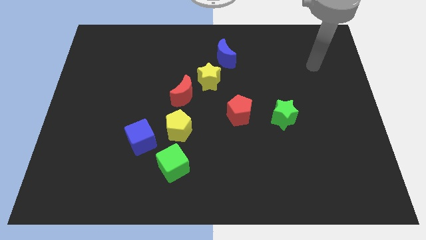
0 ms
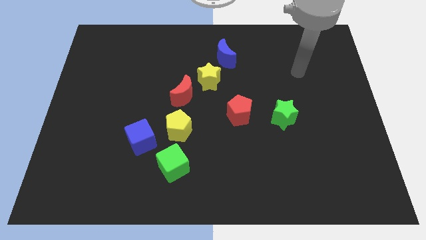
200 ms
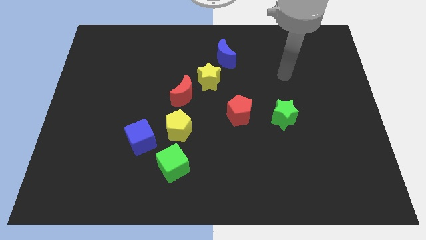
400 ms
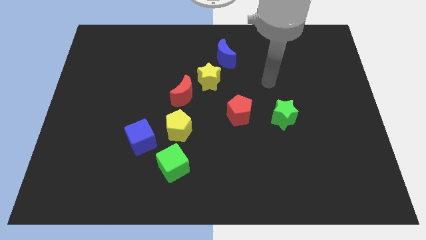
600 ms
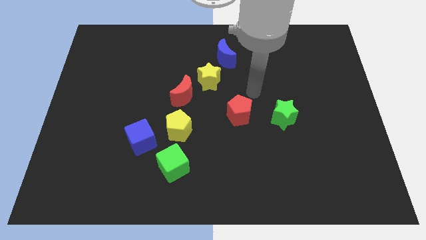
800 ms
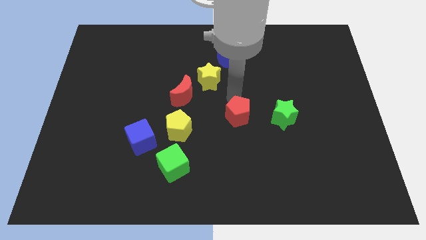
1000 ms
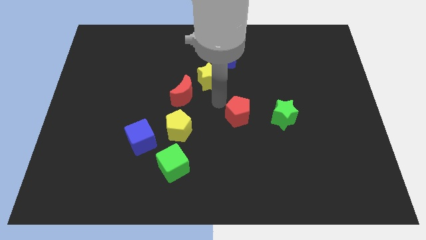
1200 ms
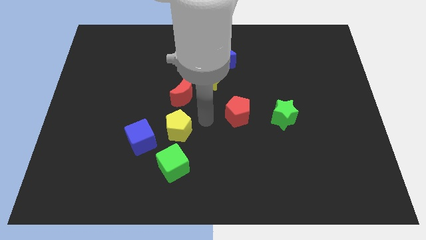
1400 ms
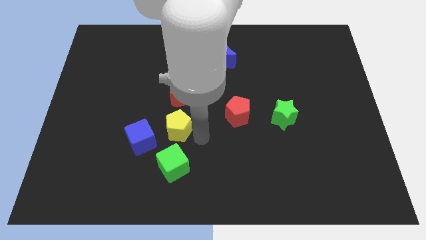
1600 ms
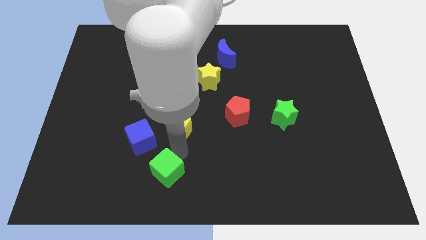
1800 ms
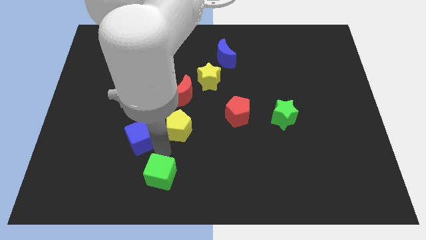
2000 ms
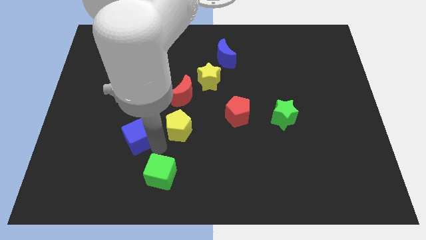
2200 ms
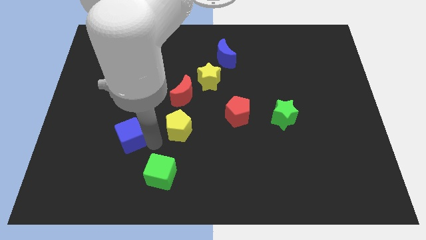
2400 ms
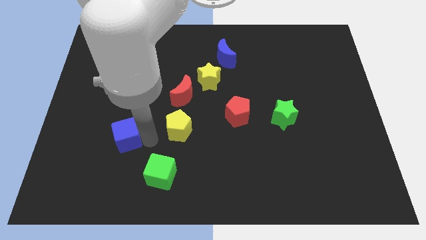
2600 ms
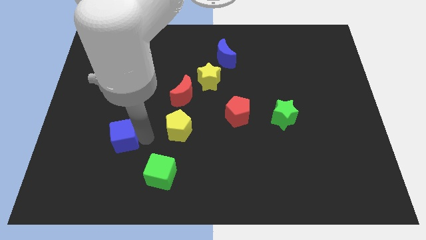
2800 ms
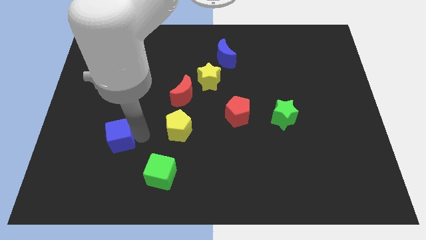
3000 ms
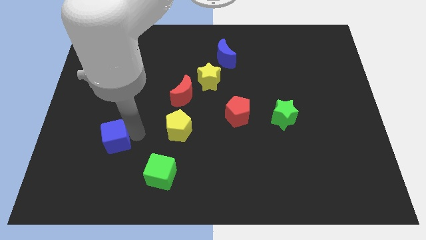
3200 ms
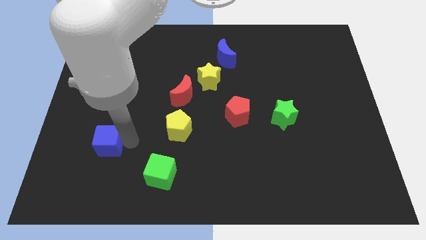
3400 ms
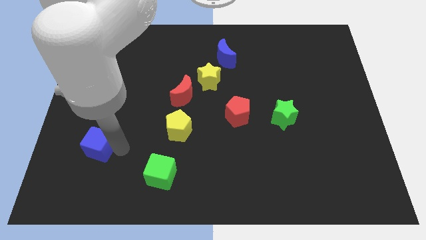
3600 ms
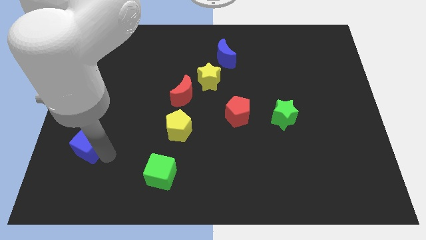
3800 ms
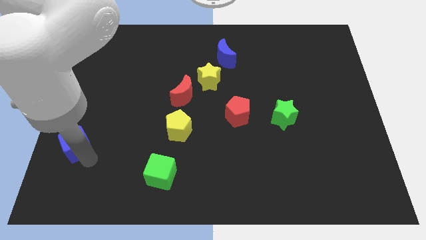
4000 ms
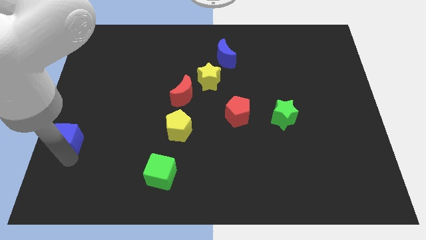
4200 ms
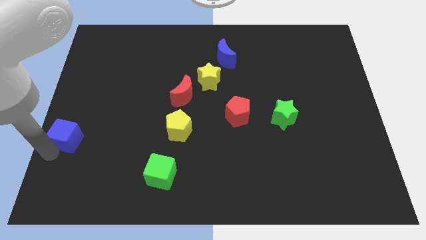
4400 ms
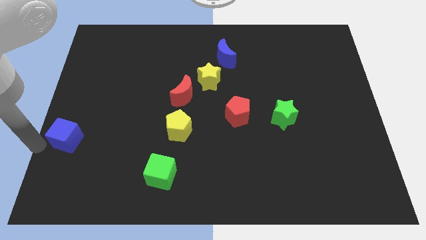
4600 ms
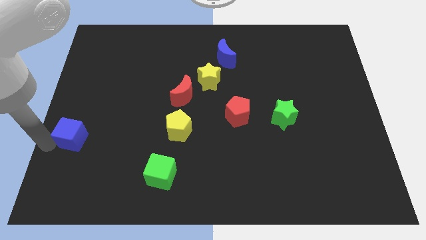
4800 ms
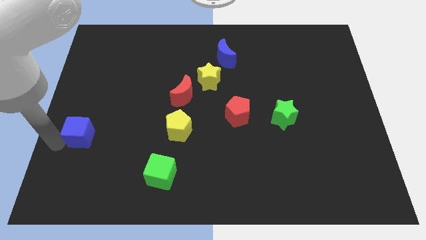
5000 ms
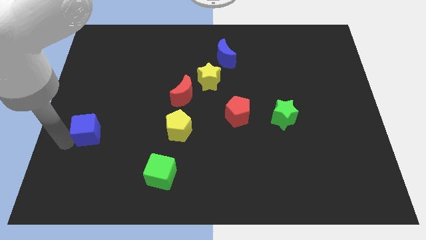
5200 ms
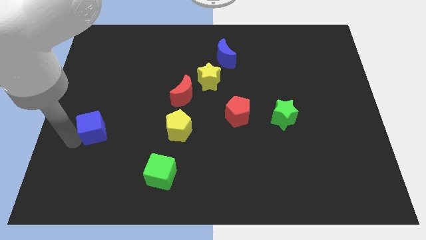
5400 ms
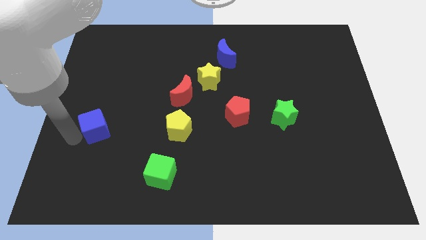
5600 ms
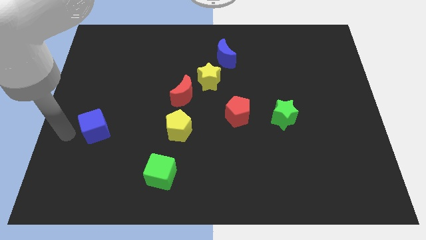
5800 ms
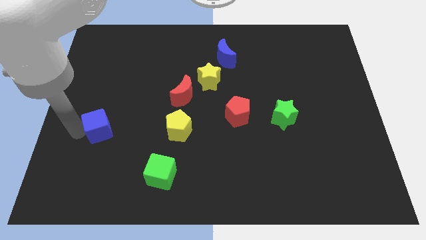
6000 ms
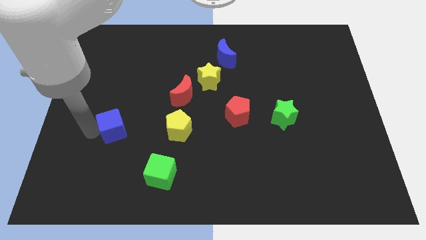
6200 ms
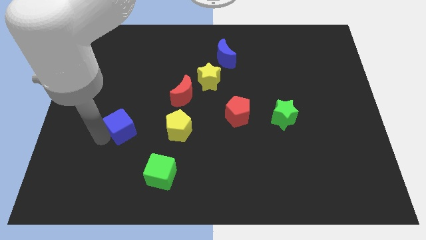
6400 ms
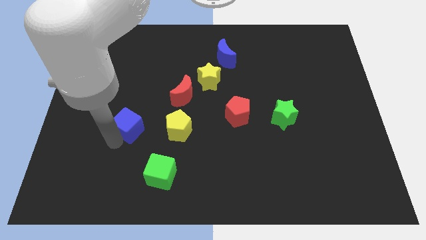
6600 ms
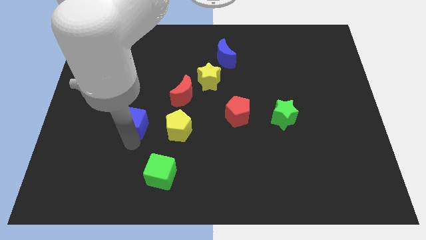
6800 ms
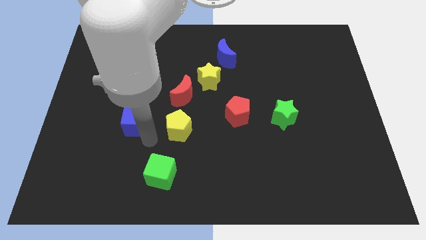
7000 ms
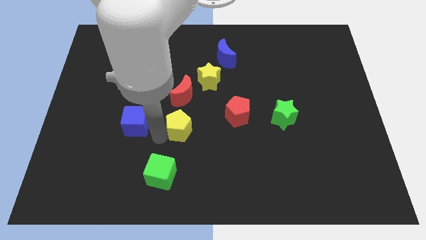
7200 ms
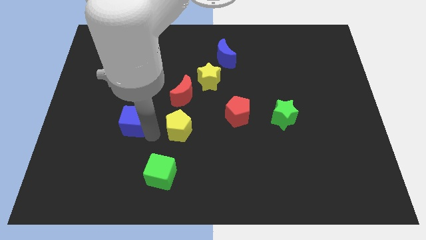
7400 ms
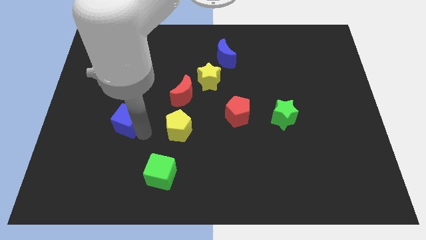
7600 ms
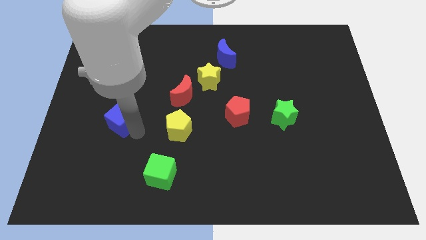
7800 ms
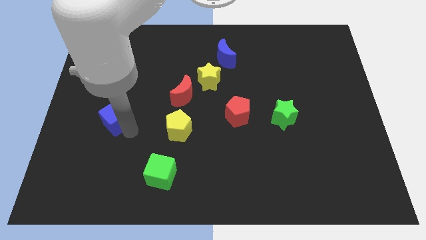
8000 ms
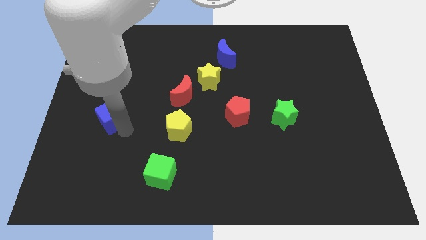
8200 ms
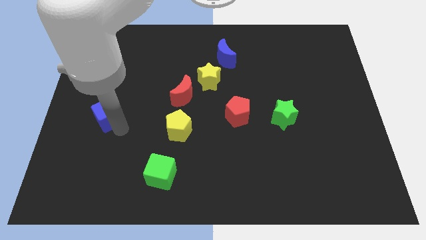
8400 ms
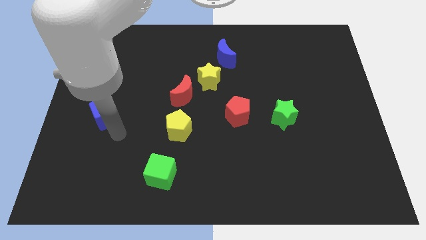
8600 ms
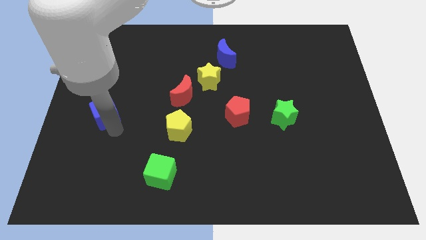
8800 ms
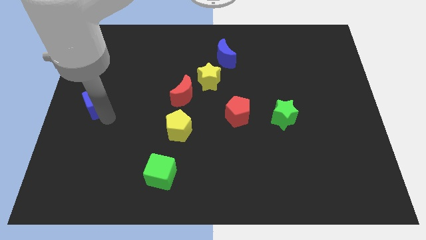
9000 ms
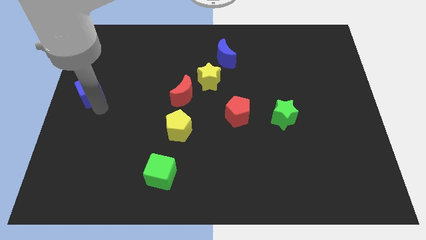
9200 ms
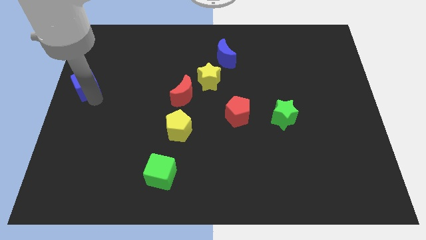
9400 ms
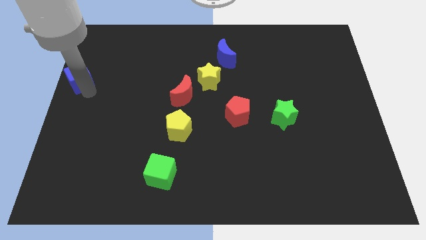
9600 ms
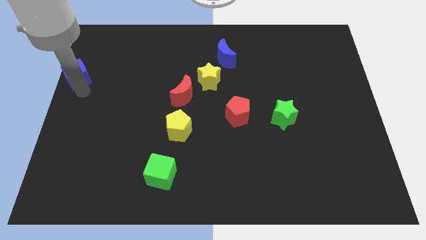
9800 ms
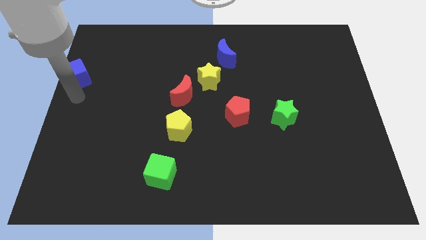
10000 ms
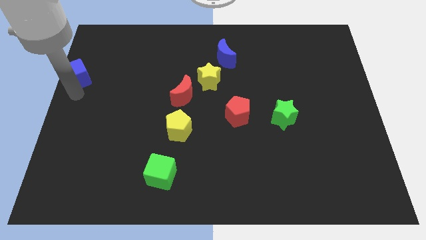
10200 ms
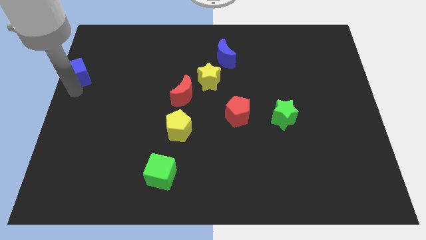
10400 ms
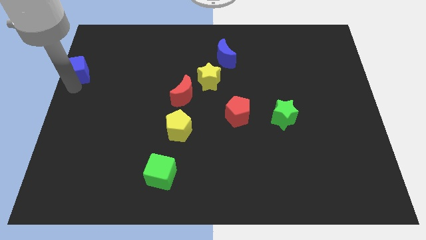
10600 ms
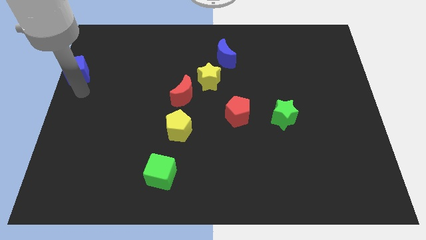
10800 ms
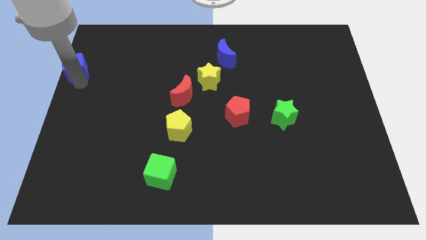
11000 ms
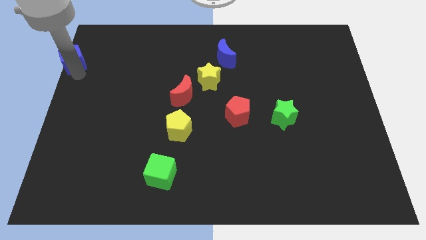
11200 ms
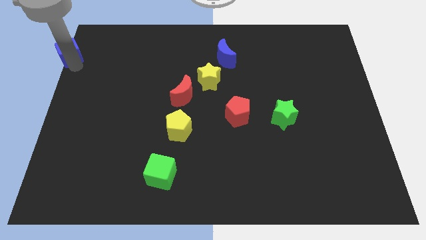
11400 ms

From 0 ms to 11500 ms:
move the blue cube to the upper left corner
